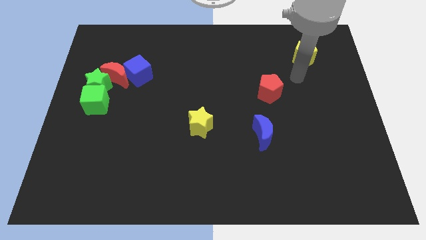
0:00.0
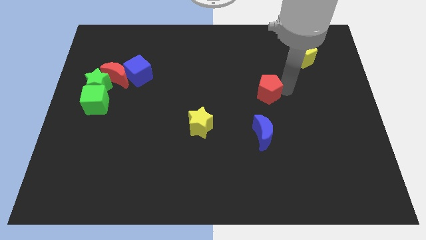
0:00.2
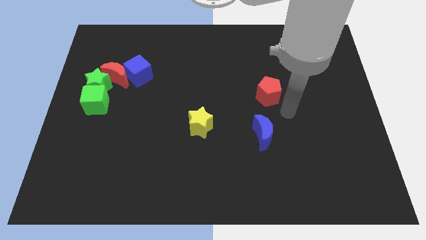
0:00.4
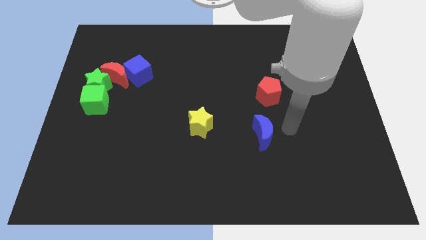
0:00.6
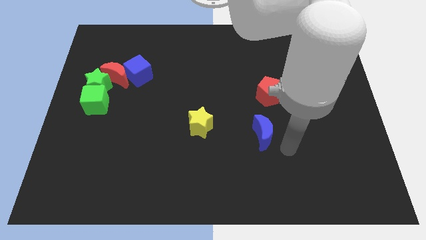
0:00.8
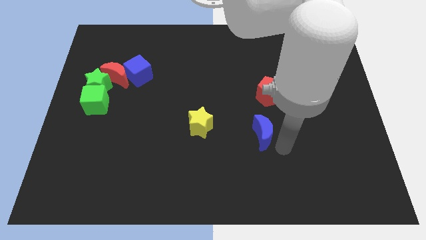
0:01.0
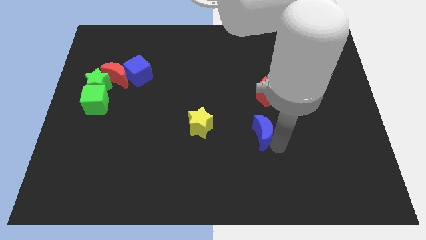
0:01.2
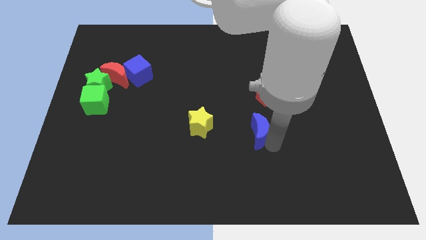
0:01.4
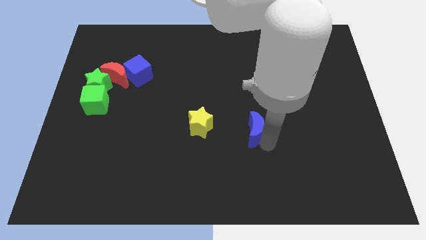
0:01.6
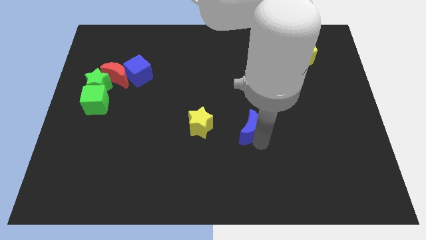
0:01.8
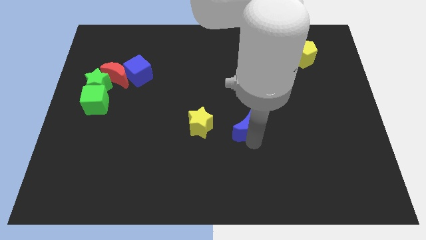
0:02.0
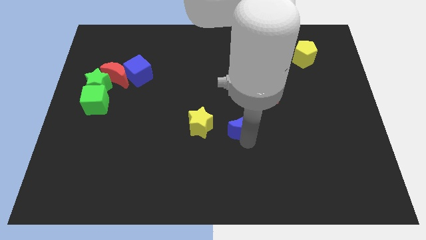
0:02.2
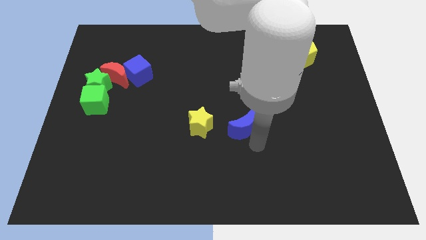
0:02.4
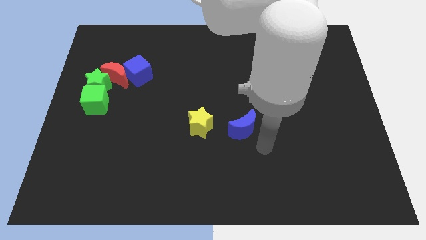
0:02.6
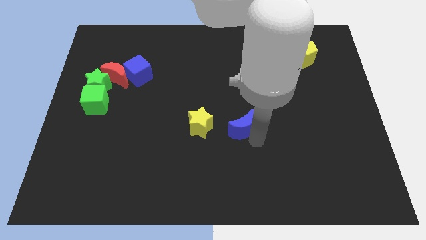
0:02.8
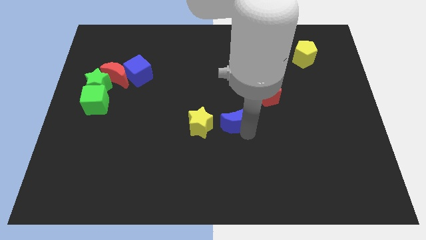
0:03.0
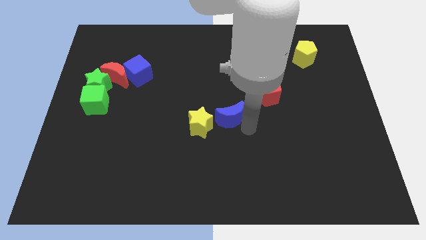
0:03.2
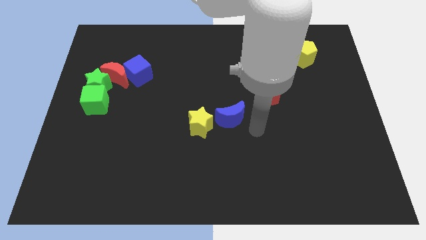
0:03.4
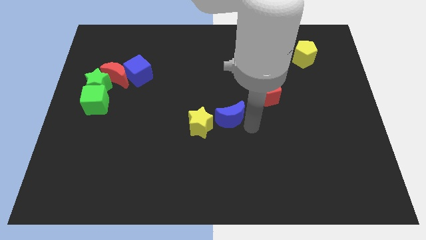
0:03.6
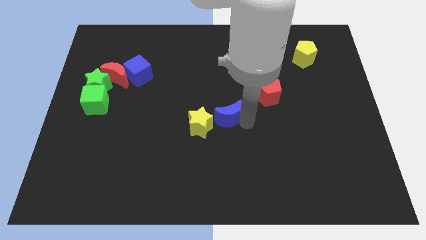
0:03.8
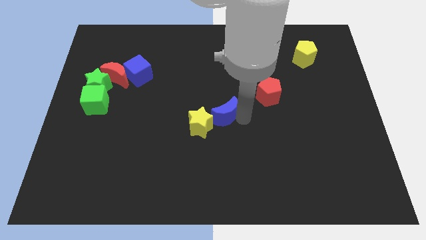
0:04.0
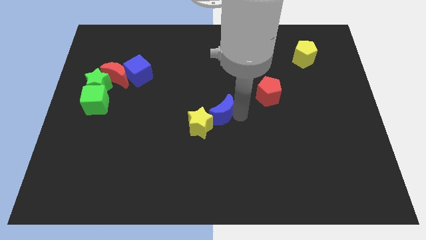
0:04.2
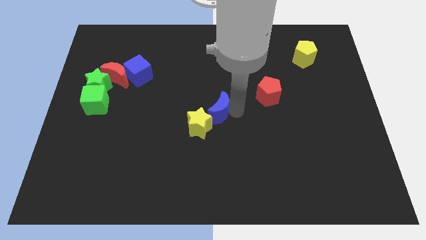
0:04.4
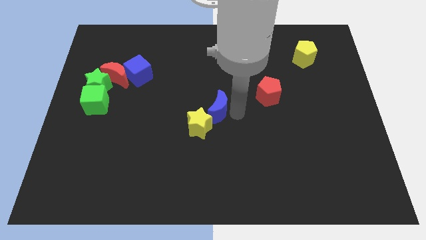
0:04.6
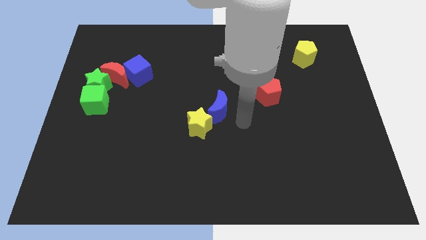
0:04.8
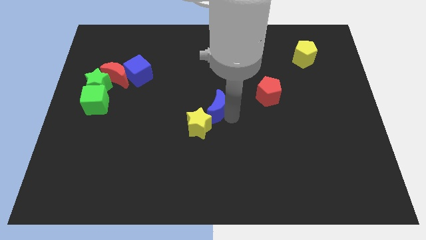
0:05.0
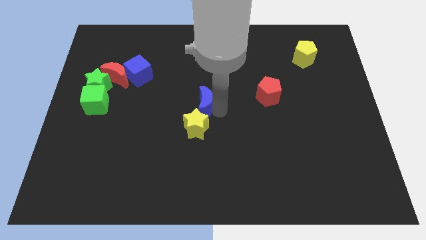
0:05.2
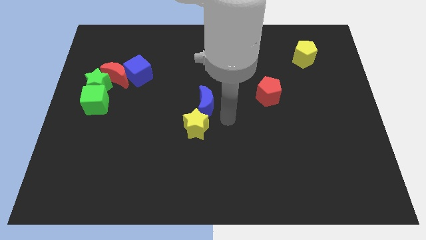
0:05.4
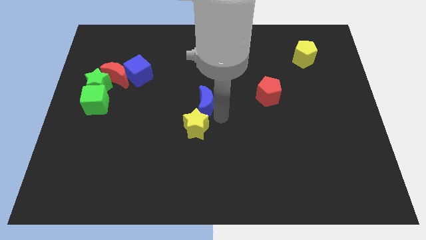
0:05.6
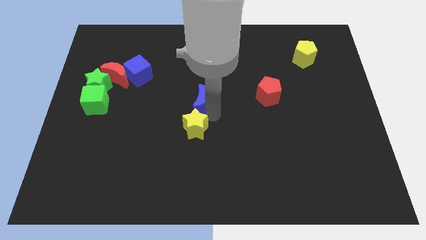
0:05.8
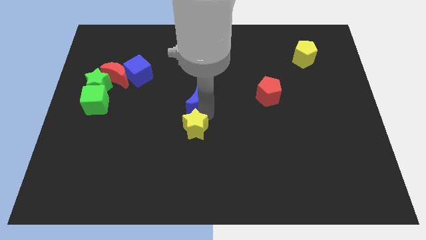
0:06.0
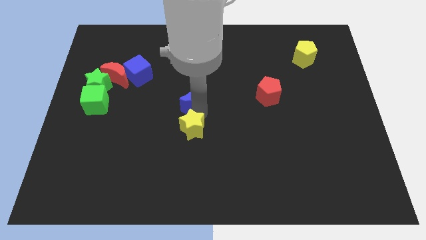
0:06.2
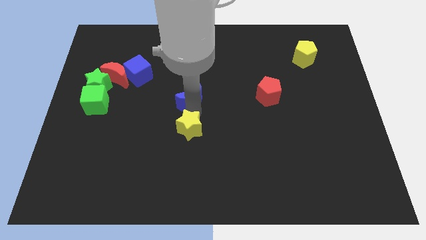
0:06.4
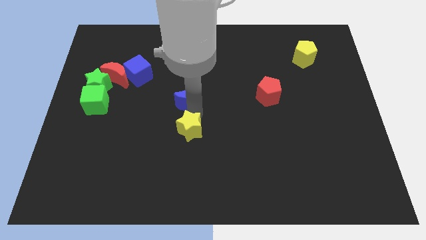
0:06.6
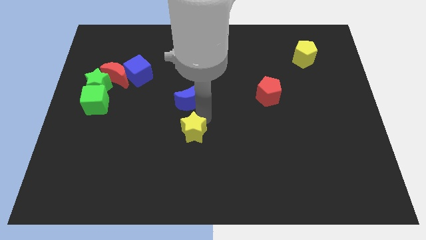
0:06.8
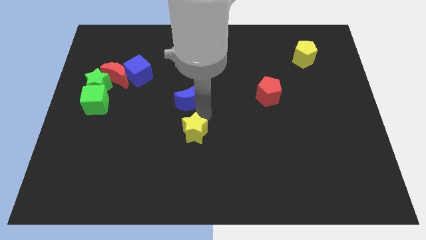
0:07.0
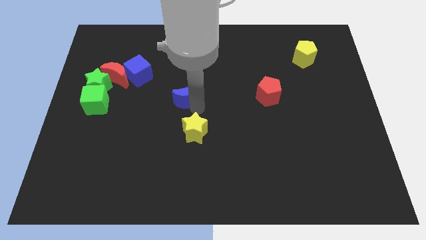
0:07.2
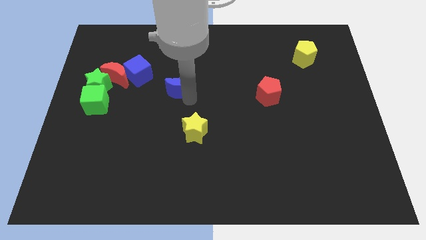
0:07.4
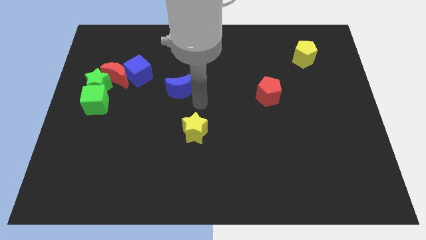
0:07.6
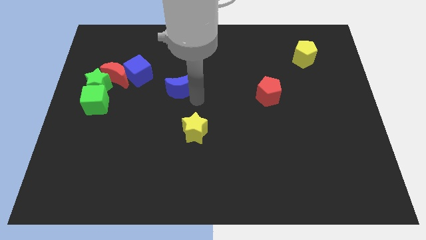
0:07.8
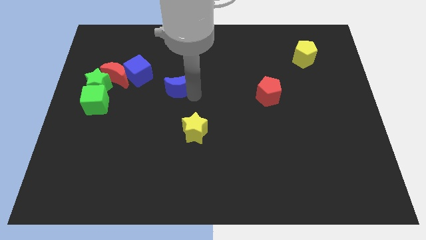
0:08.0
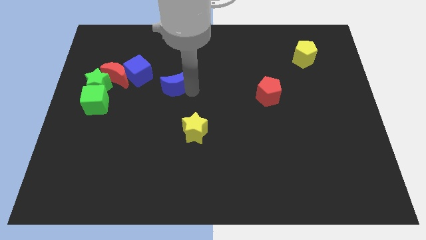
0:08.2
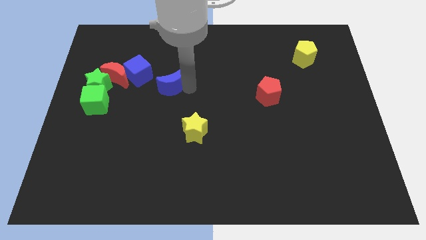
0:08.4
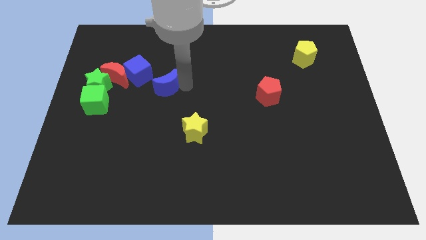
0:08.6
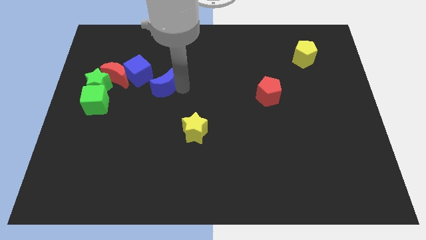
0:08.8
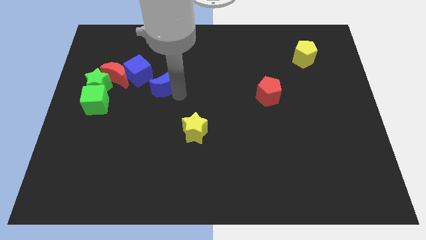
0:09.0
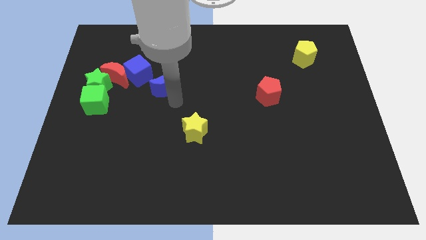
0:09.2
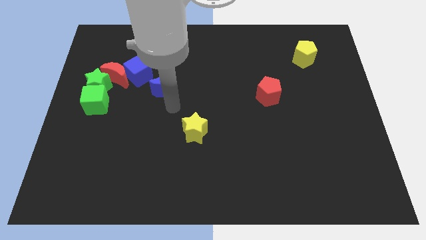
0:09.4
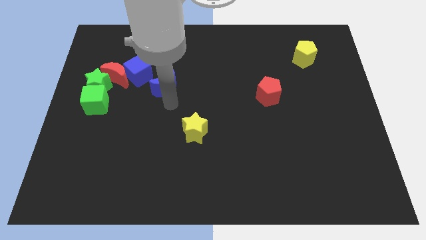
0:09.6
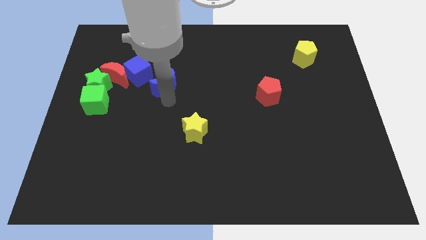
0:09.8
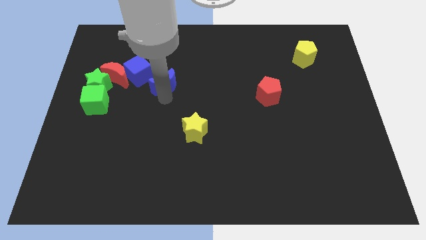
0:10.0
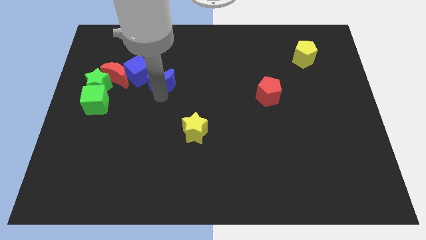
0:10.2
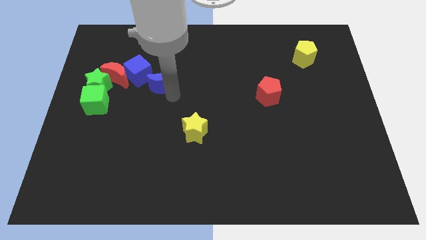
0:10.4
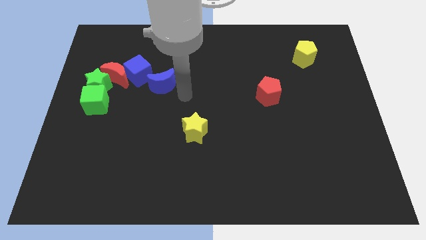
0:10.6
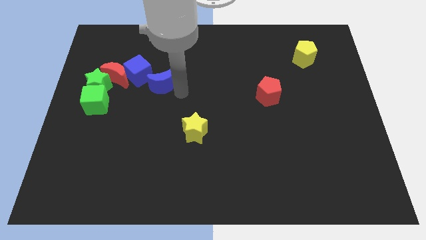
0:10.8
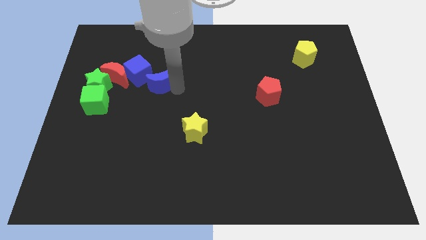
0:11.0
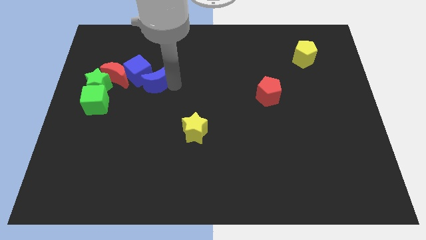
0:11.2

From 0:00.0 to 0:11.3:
slide the blue moon to the blue cube
